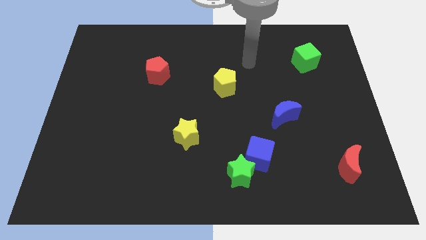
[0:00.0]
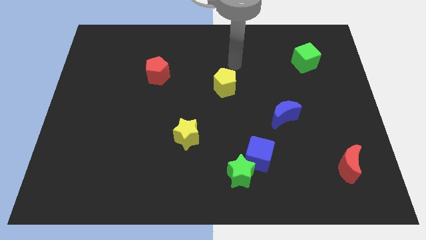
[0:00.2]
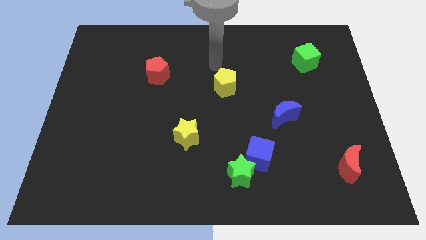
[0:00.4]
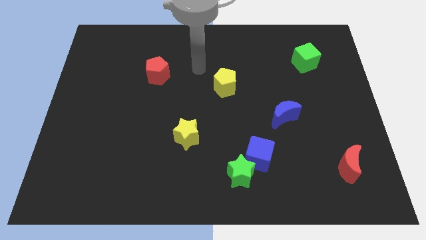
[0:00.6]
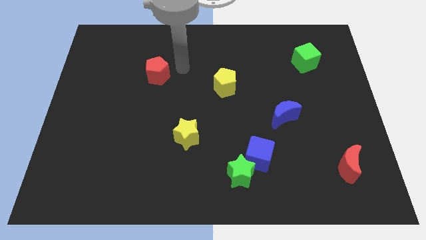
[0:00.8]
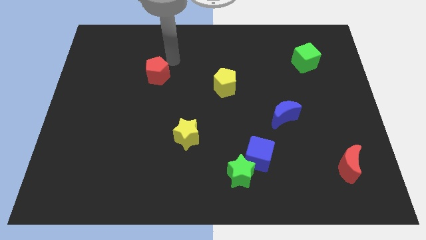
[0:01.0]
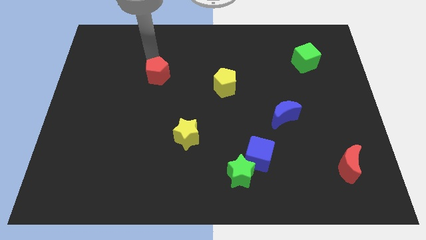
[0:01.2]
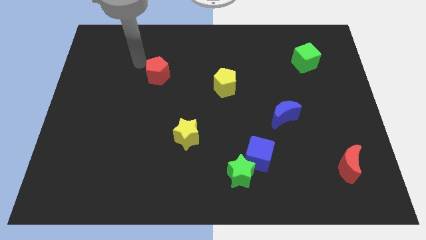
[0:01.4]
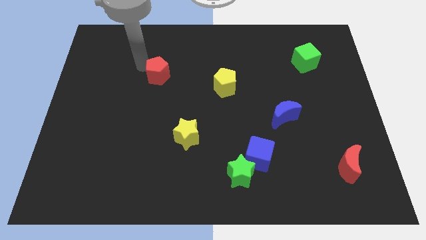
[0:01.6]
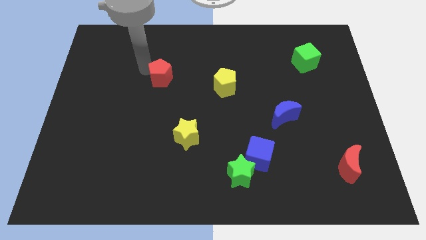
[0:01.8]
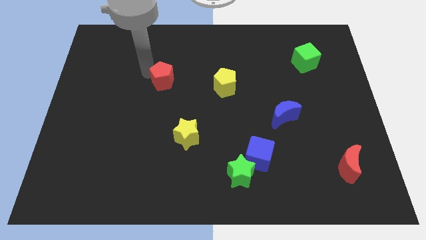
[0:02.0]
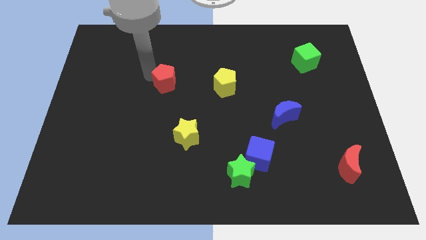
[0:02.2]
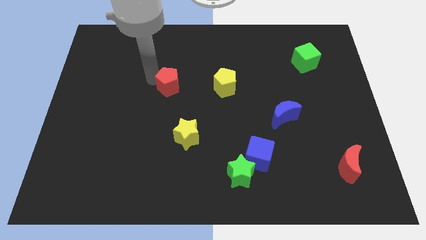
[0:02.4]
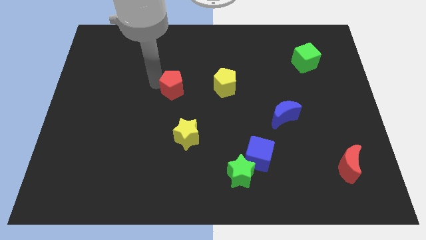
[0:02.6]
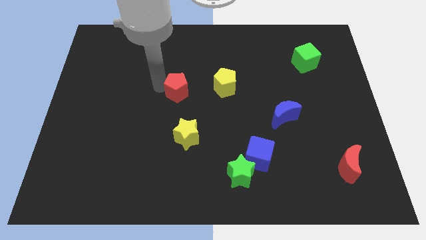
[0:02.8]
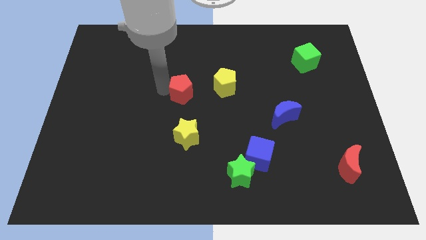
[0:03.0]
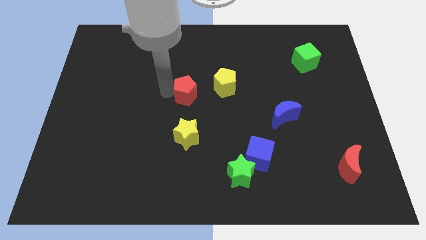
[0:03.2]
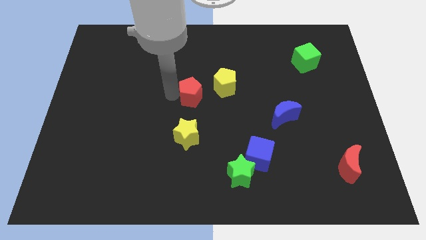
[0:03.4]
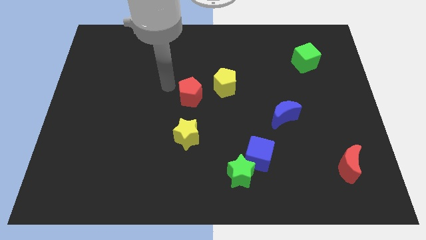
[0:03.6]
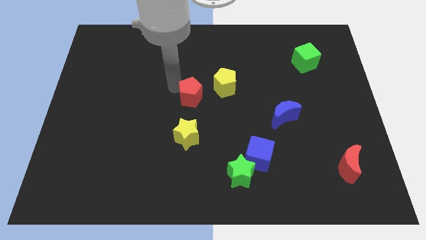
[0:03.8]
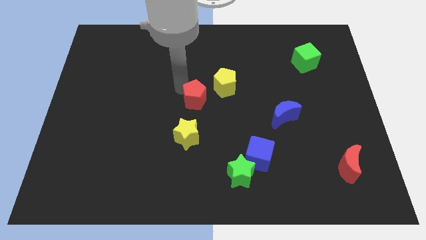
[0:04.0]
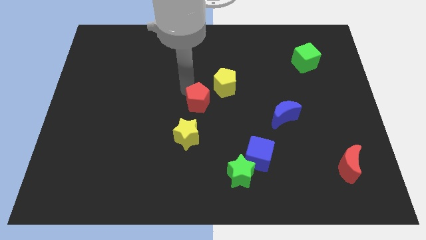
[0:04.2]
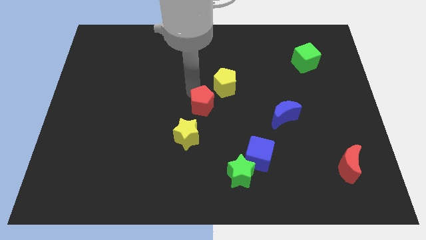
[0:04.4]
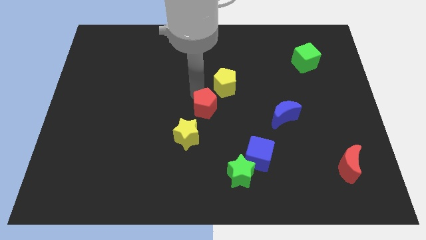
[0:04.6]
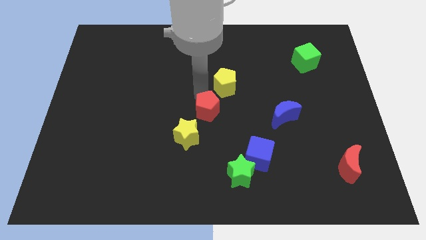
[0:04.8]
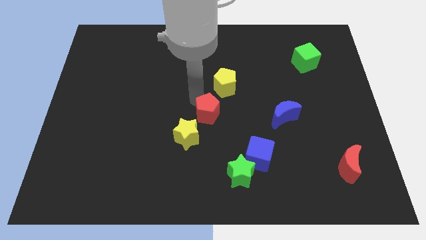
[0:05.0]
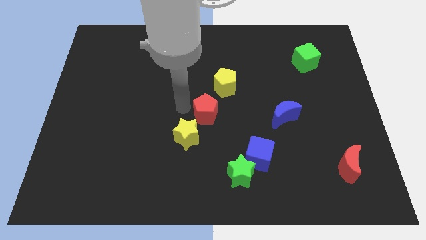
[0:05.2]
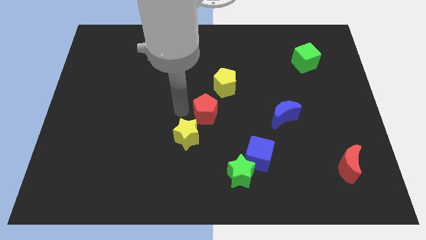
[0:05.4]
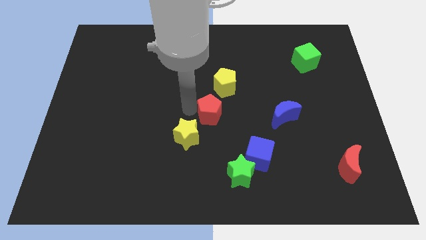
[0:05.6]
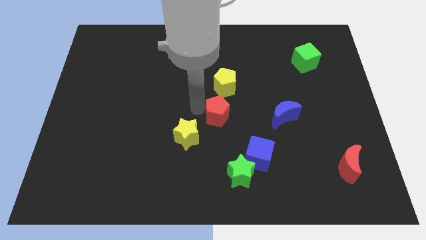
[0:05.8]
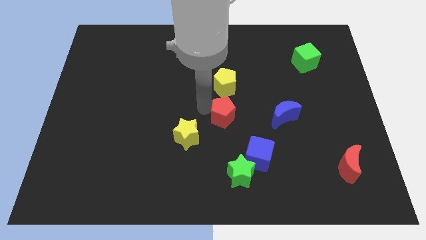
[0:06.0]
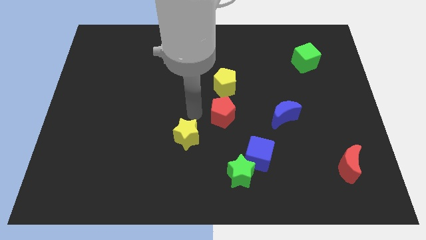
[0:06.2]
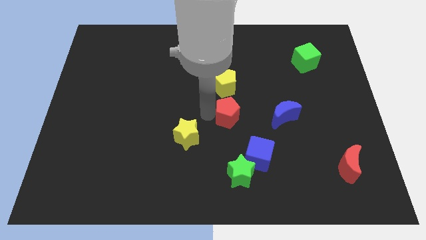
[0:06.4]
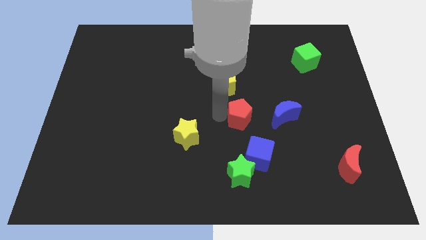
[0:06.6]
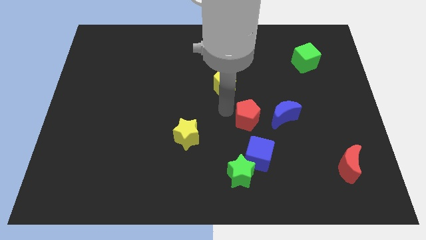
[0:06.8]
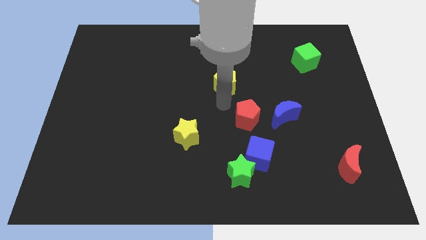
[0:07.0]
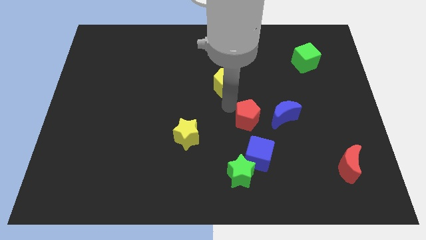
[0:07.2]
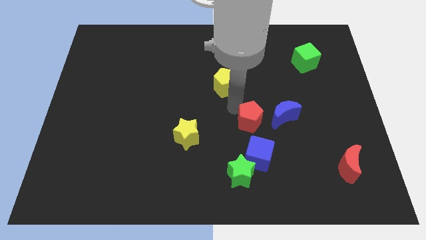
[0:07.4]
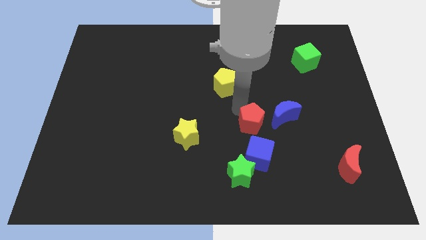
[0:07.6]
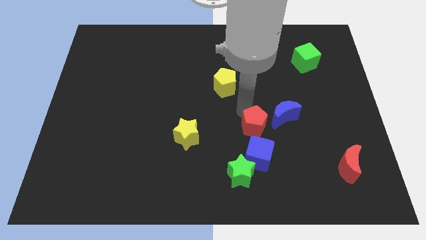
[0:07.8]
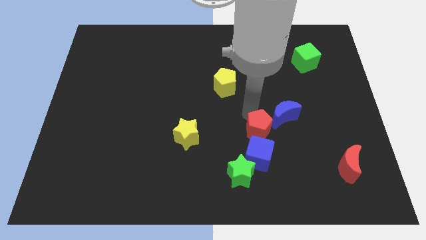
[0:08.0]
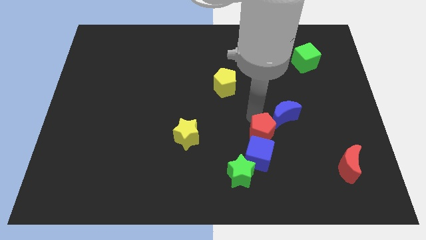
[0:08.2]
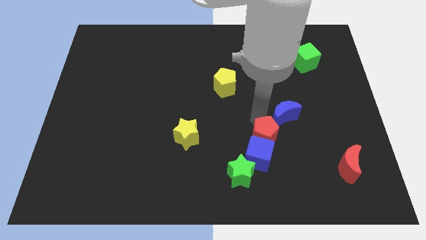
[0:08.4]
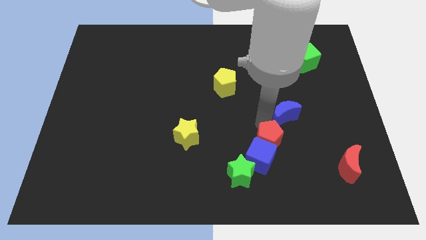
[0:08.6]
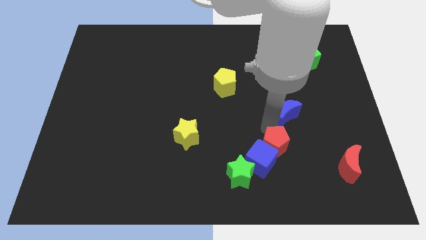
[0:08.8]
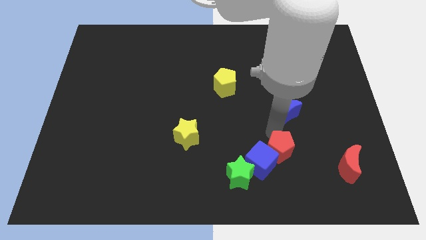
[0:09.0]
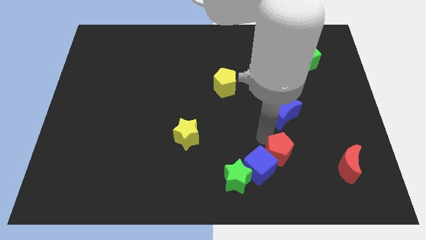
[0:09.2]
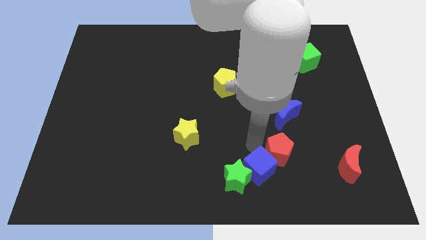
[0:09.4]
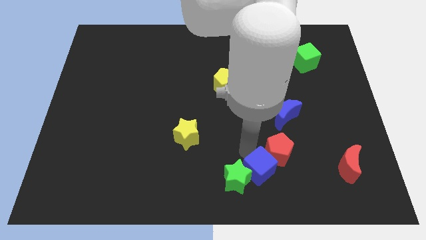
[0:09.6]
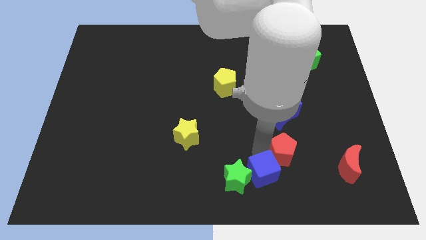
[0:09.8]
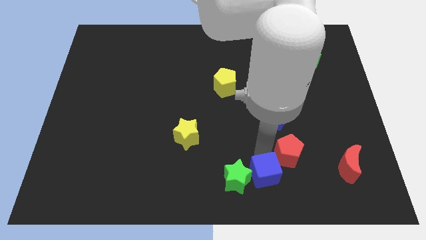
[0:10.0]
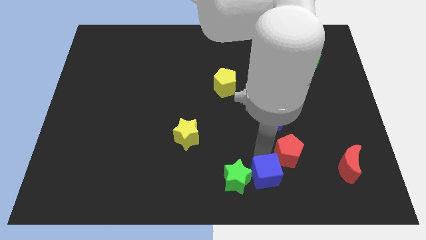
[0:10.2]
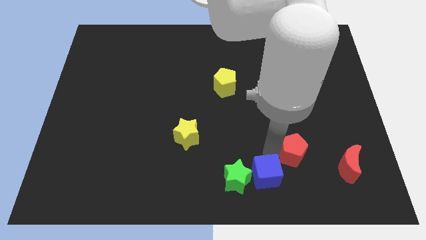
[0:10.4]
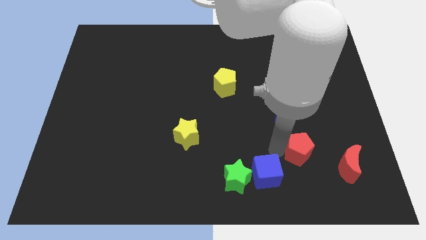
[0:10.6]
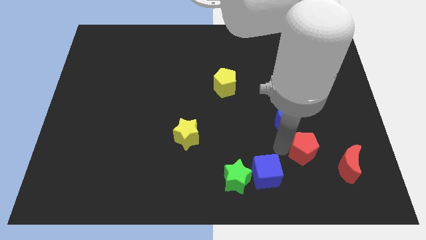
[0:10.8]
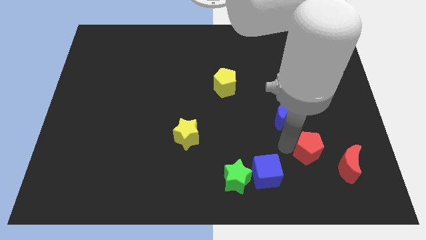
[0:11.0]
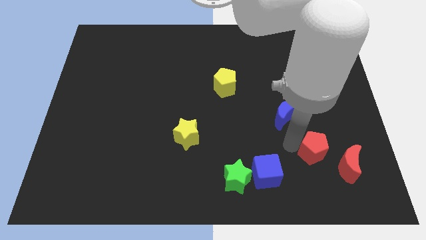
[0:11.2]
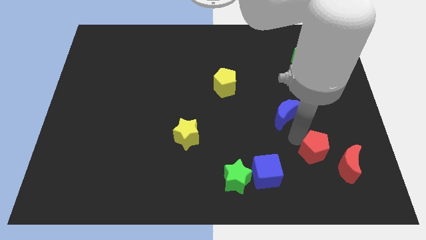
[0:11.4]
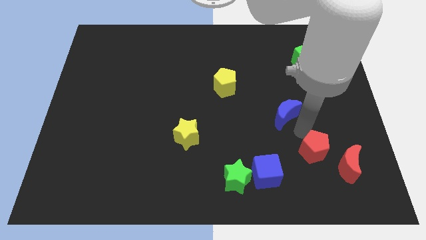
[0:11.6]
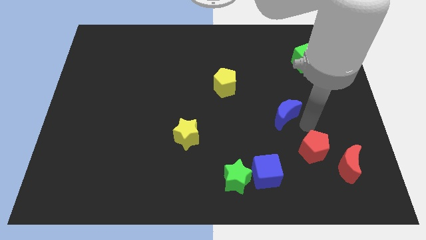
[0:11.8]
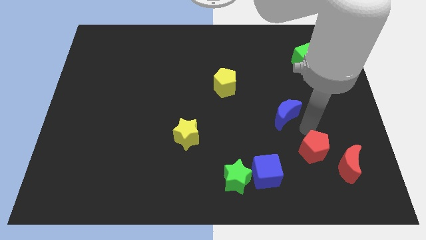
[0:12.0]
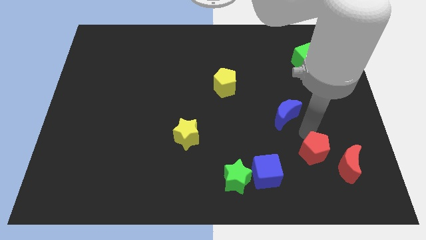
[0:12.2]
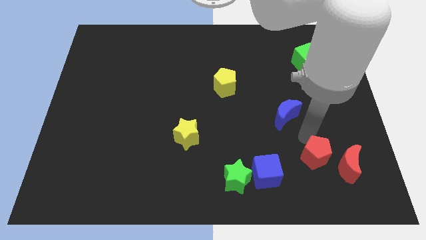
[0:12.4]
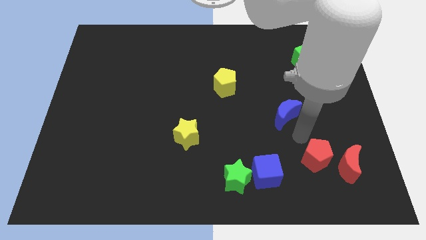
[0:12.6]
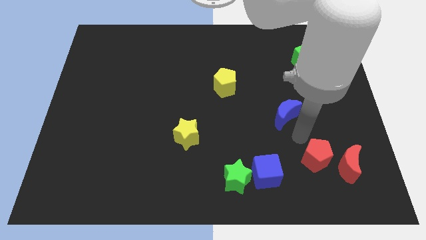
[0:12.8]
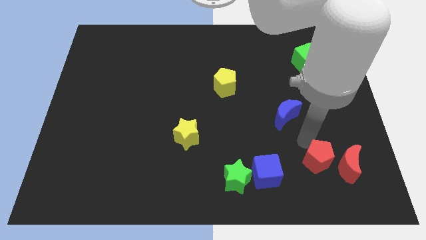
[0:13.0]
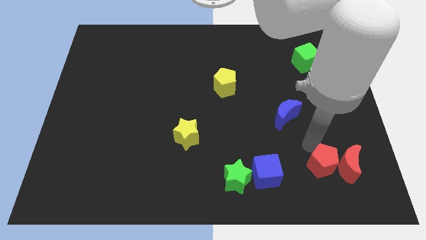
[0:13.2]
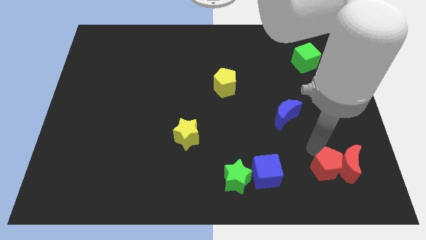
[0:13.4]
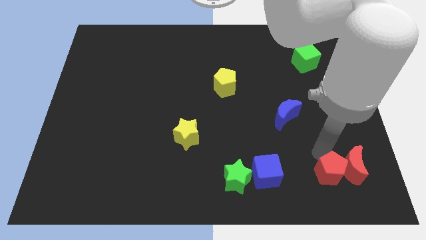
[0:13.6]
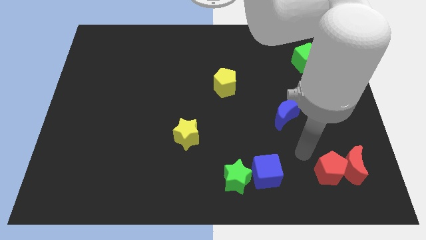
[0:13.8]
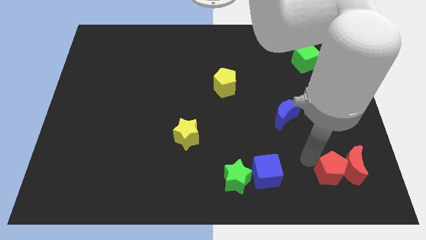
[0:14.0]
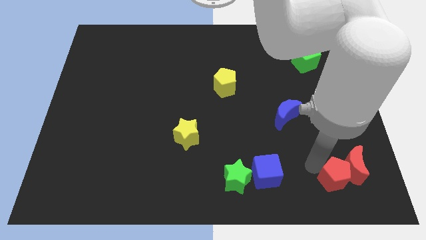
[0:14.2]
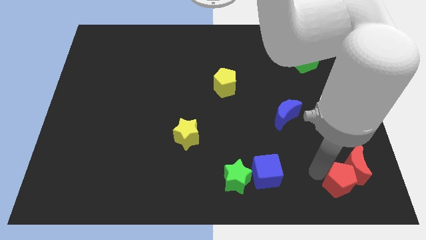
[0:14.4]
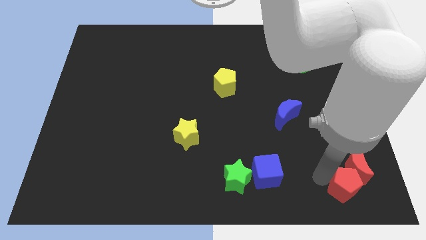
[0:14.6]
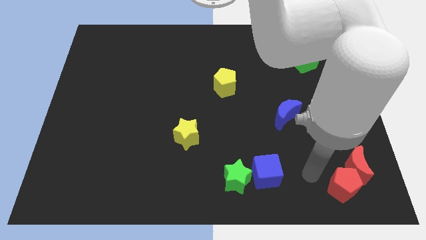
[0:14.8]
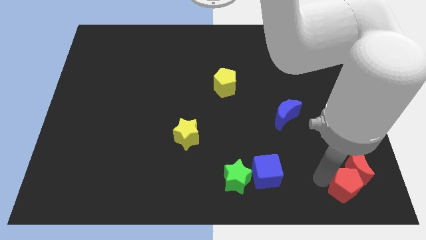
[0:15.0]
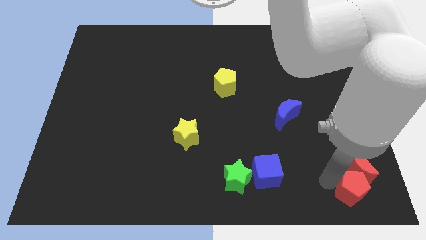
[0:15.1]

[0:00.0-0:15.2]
move the red pentagon to the bottom right
